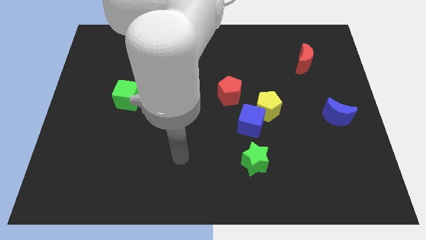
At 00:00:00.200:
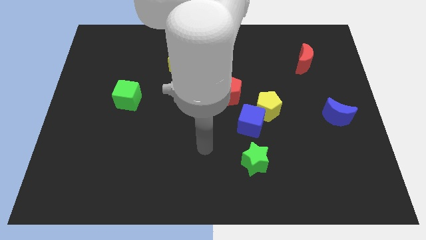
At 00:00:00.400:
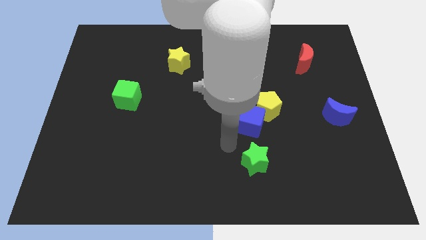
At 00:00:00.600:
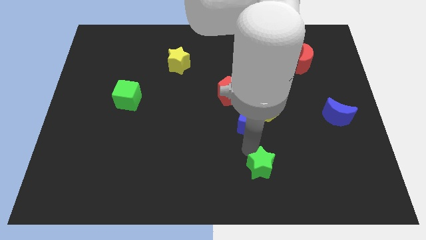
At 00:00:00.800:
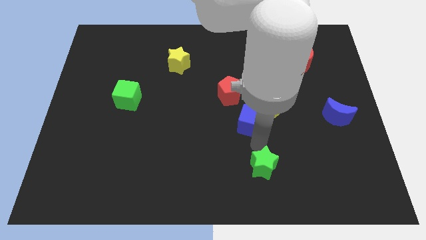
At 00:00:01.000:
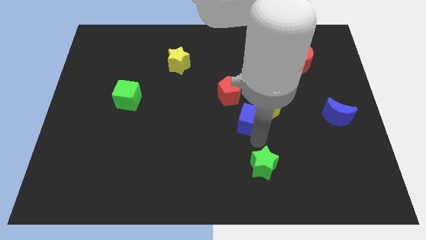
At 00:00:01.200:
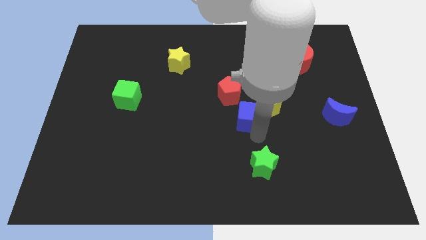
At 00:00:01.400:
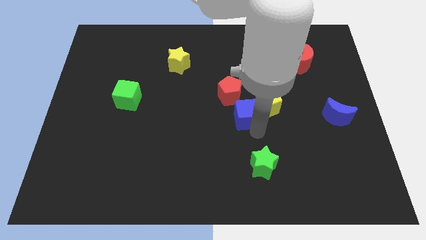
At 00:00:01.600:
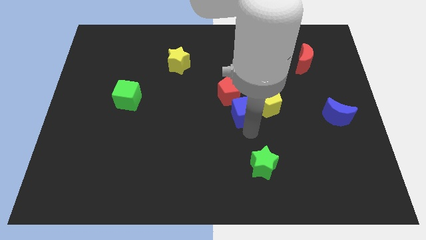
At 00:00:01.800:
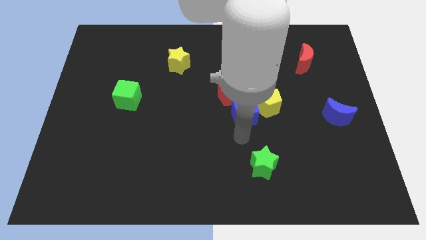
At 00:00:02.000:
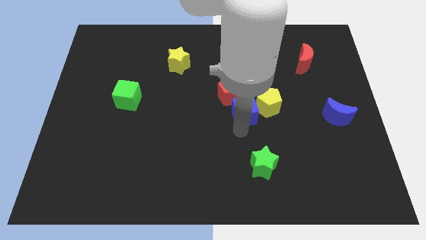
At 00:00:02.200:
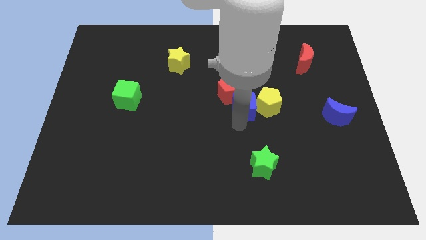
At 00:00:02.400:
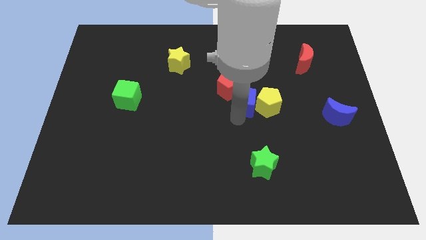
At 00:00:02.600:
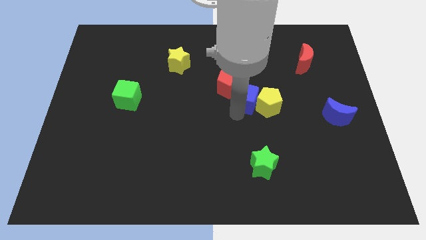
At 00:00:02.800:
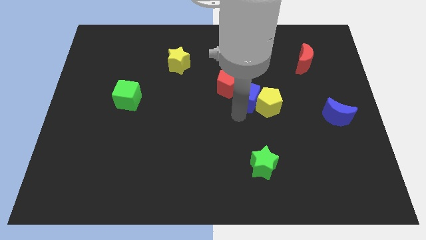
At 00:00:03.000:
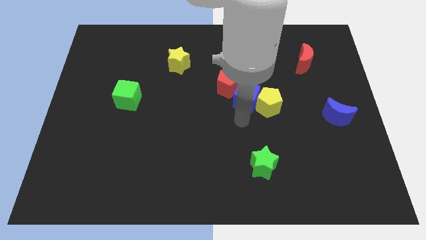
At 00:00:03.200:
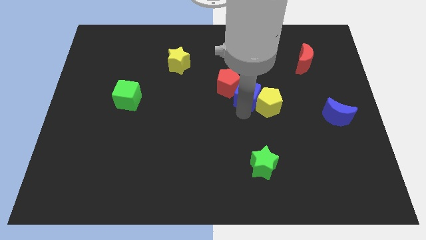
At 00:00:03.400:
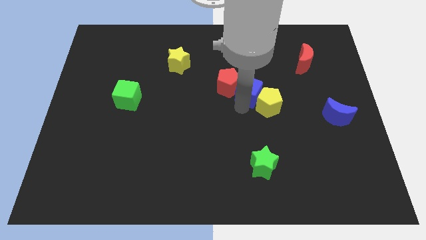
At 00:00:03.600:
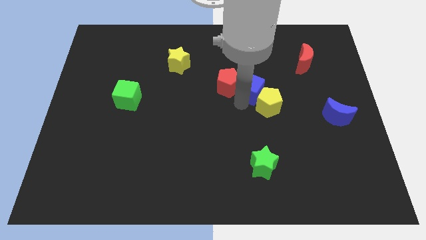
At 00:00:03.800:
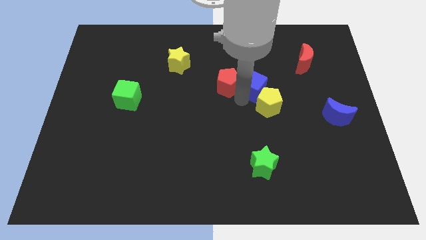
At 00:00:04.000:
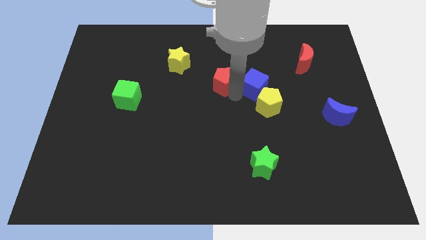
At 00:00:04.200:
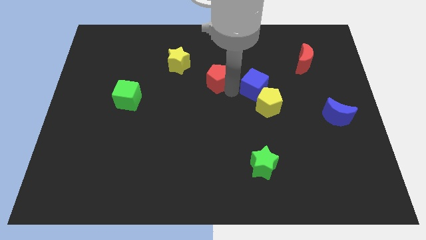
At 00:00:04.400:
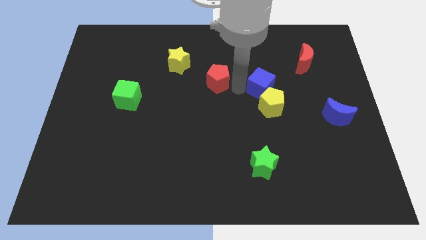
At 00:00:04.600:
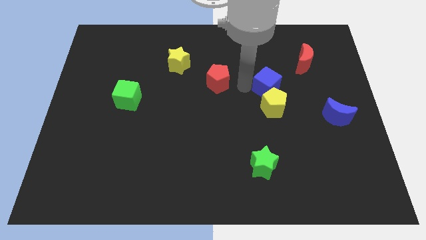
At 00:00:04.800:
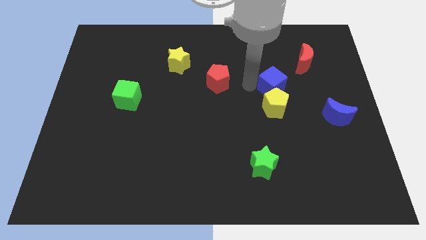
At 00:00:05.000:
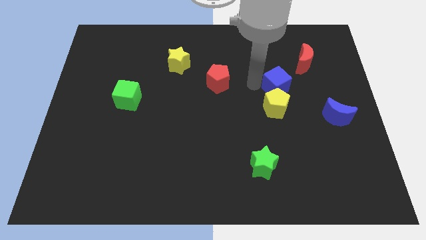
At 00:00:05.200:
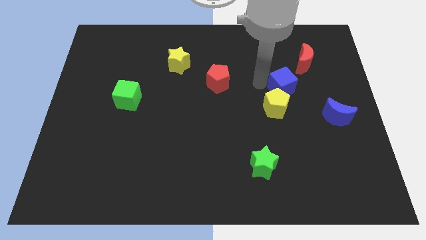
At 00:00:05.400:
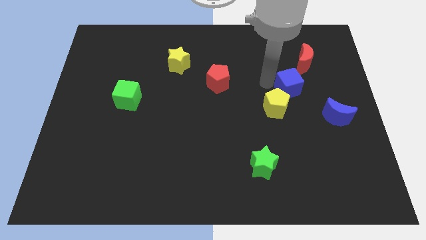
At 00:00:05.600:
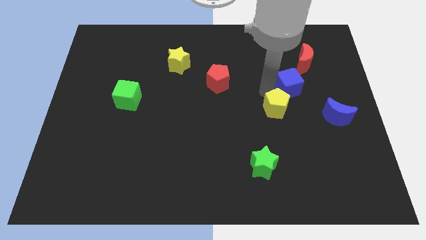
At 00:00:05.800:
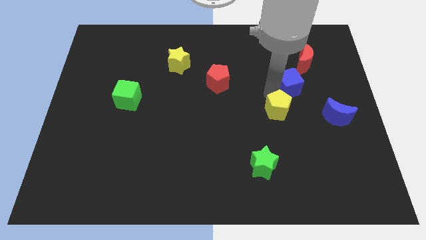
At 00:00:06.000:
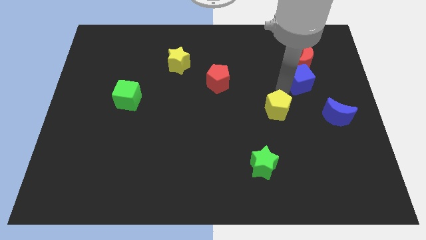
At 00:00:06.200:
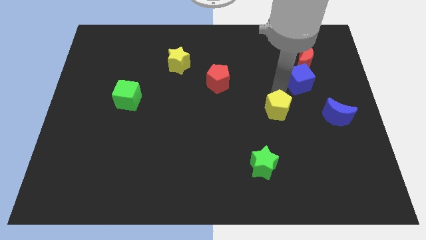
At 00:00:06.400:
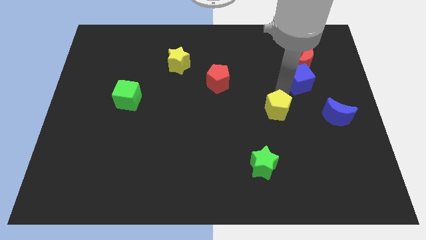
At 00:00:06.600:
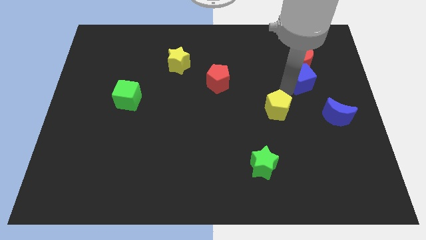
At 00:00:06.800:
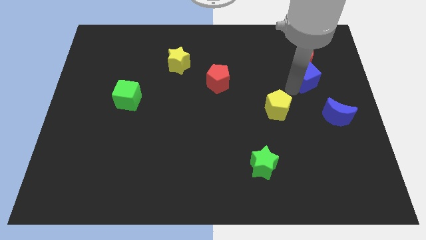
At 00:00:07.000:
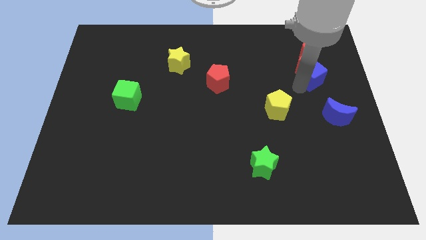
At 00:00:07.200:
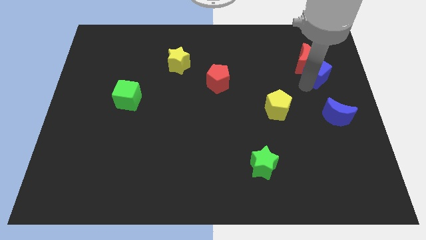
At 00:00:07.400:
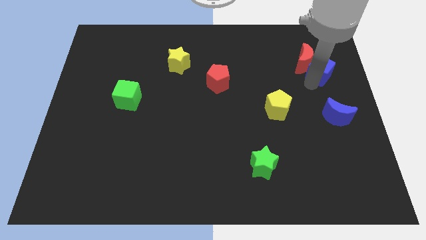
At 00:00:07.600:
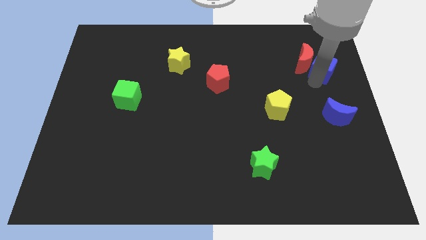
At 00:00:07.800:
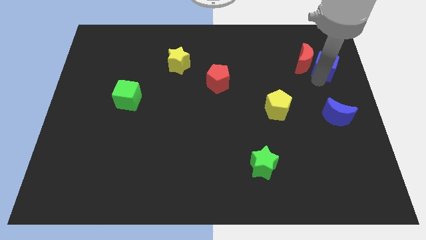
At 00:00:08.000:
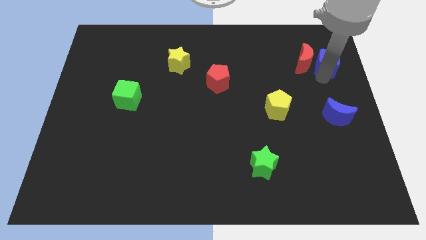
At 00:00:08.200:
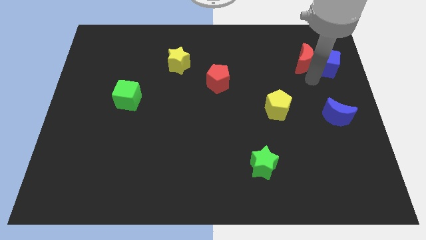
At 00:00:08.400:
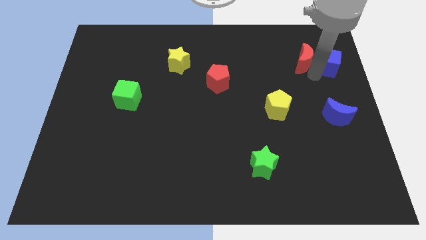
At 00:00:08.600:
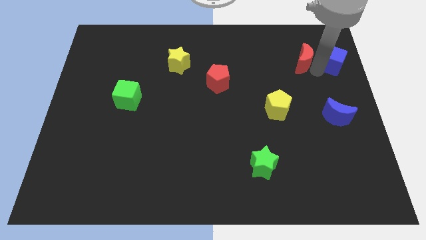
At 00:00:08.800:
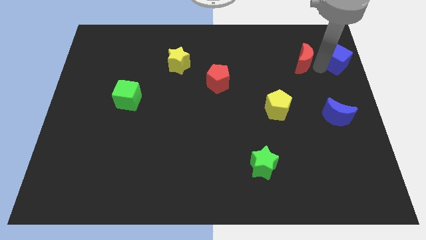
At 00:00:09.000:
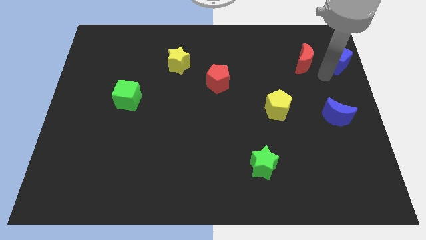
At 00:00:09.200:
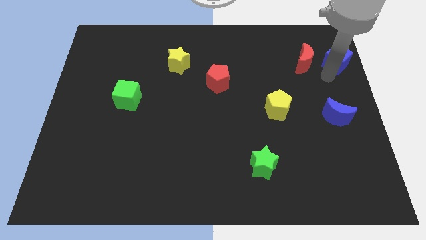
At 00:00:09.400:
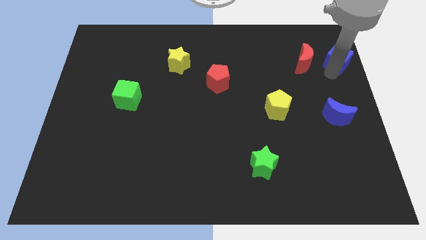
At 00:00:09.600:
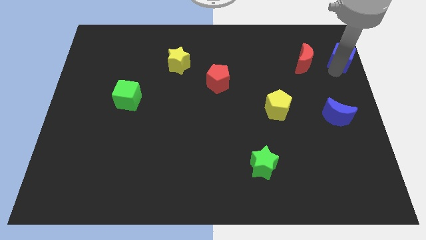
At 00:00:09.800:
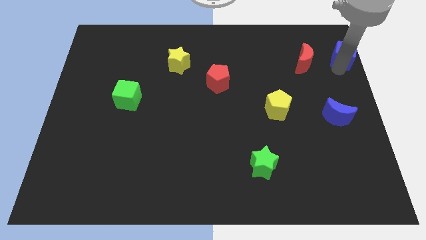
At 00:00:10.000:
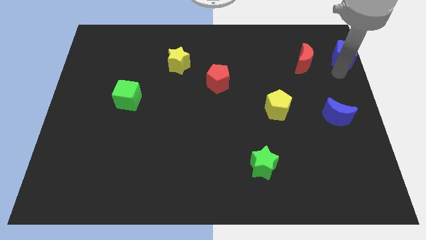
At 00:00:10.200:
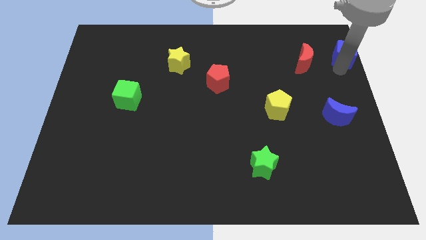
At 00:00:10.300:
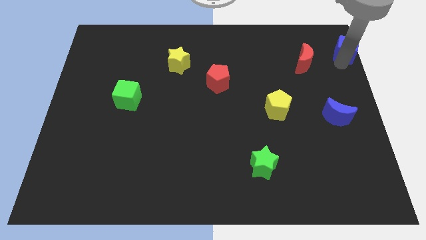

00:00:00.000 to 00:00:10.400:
move the blue cube to the top right of the board
